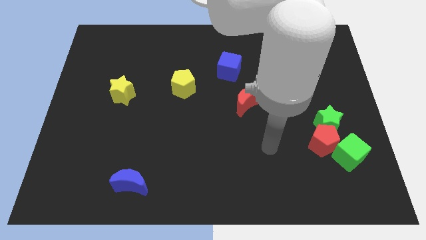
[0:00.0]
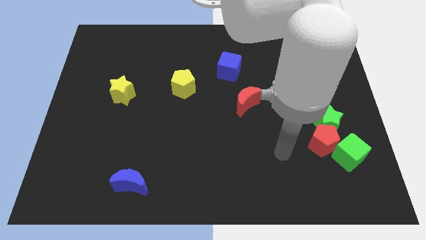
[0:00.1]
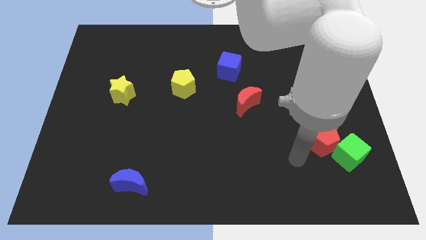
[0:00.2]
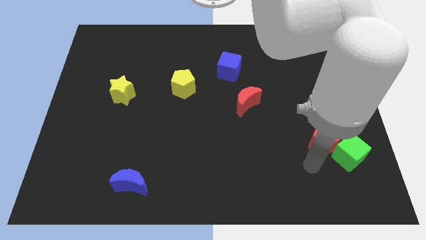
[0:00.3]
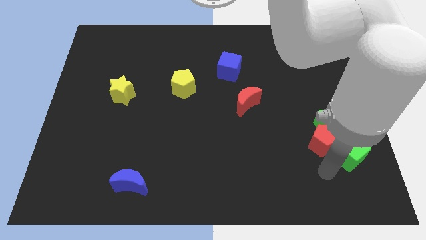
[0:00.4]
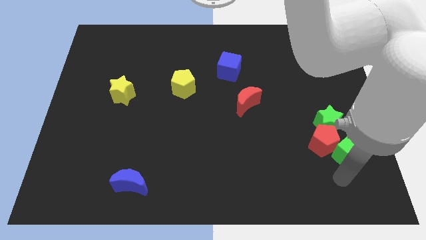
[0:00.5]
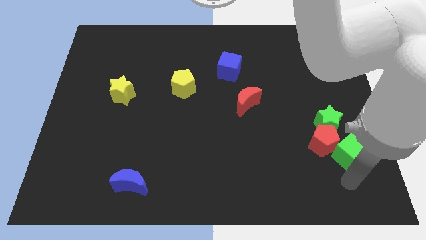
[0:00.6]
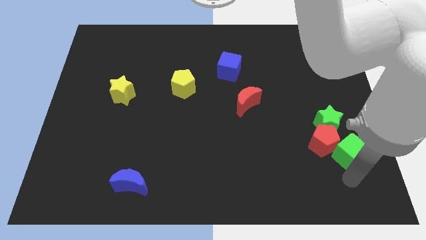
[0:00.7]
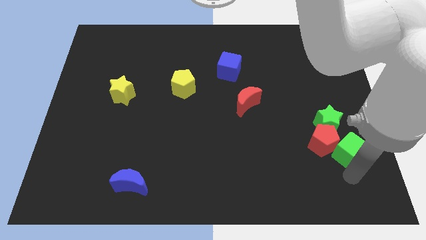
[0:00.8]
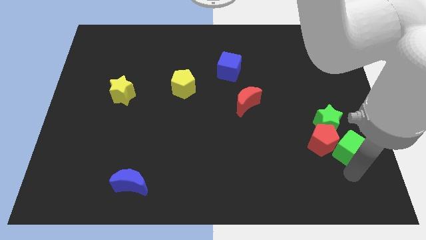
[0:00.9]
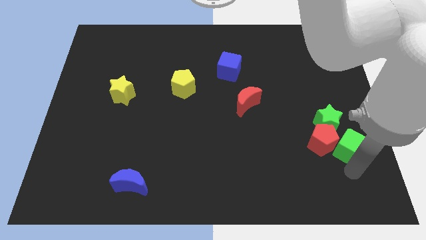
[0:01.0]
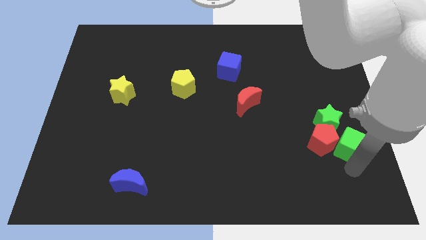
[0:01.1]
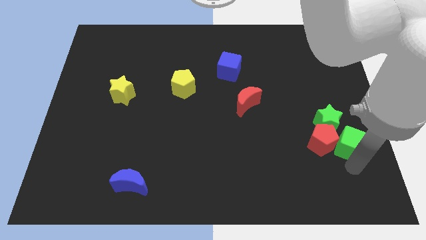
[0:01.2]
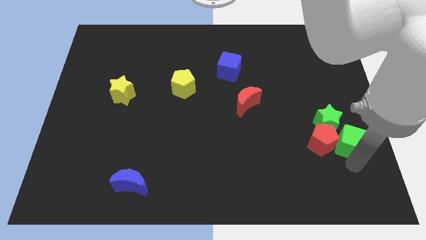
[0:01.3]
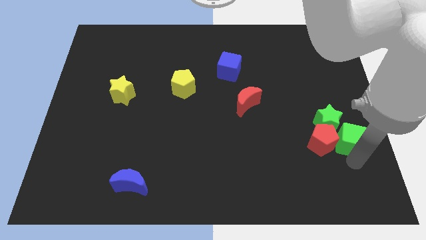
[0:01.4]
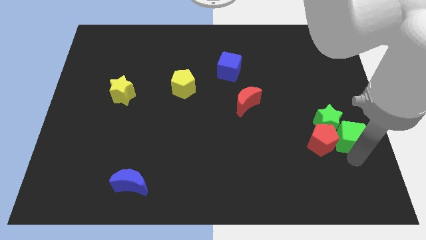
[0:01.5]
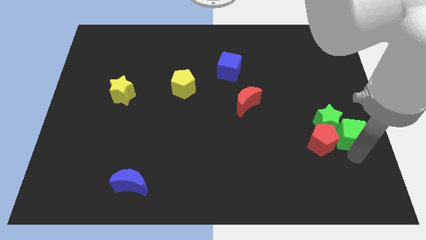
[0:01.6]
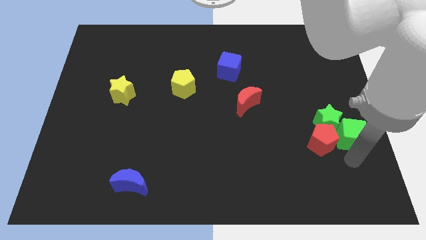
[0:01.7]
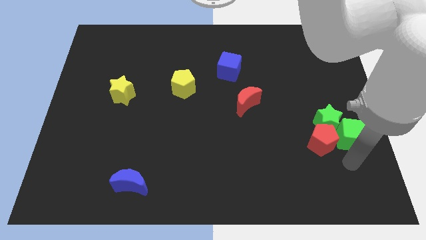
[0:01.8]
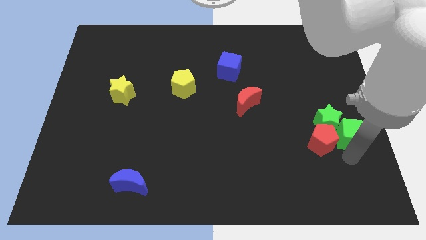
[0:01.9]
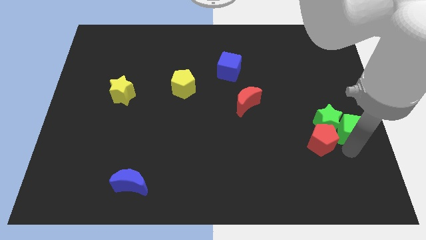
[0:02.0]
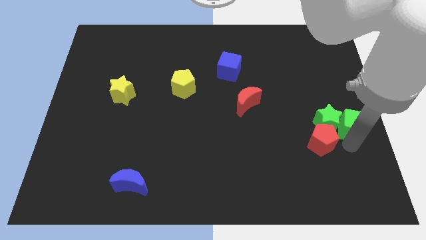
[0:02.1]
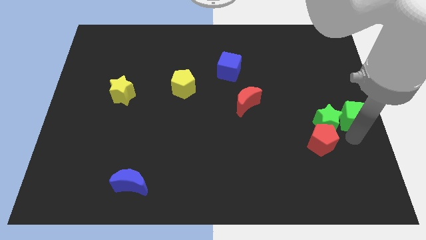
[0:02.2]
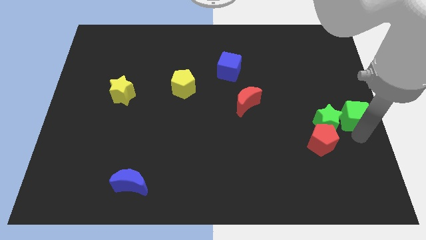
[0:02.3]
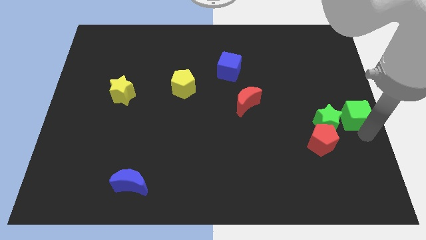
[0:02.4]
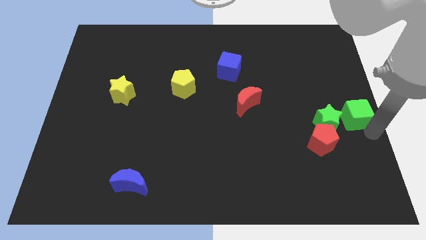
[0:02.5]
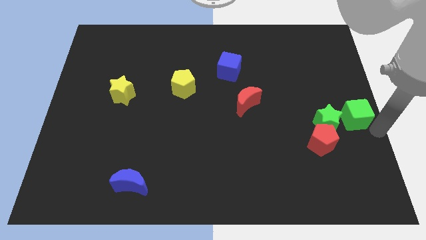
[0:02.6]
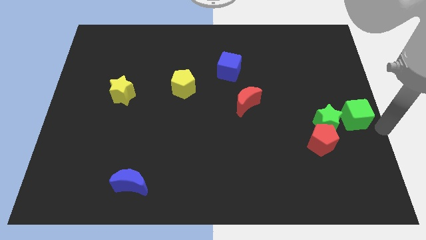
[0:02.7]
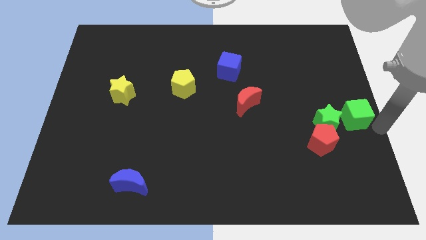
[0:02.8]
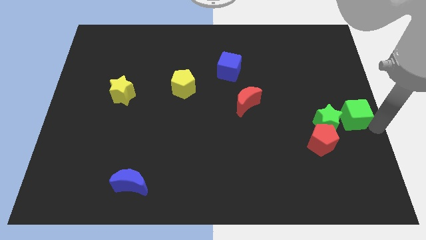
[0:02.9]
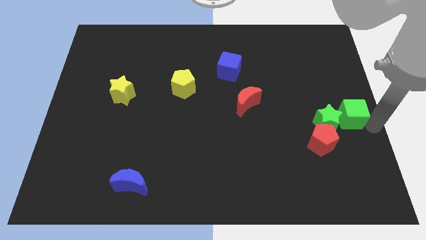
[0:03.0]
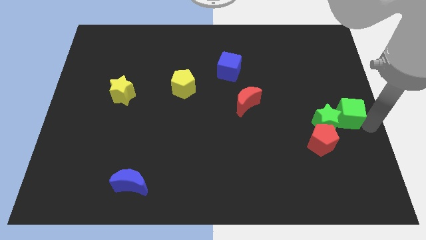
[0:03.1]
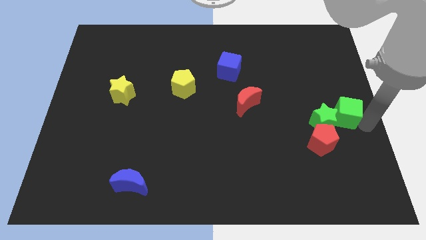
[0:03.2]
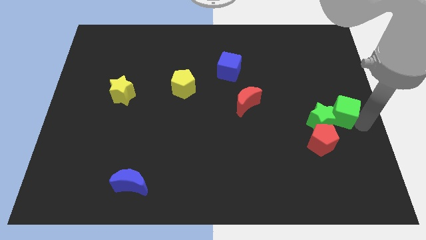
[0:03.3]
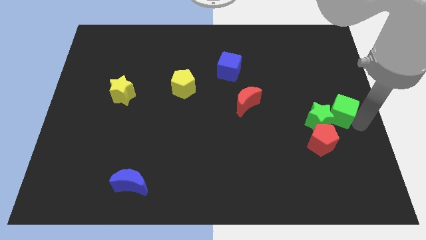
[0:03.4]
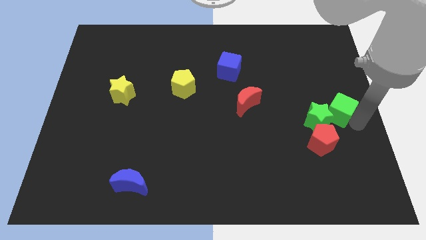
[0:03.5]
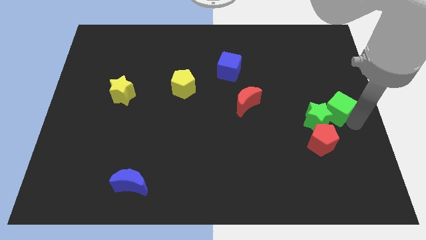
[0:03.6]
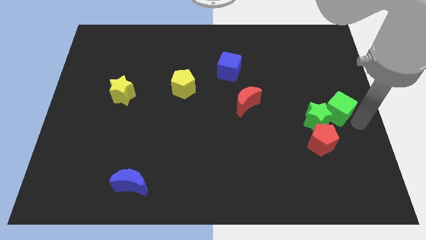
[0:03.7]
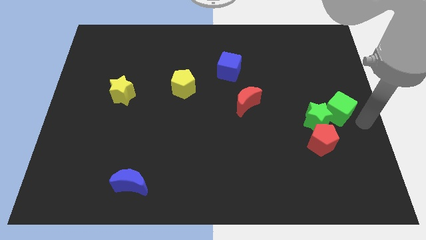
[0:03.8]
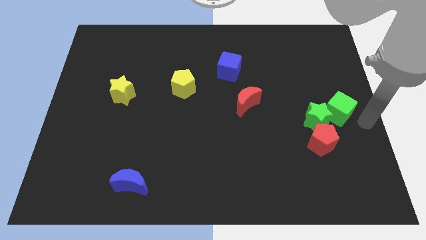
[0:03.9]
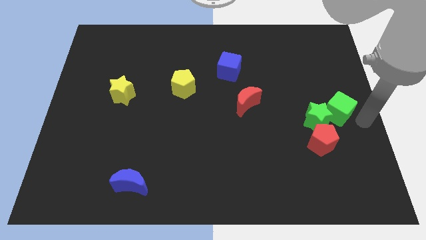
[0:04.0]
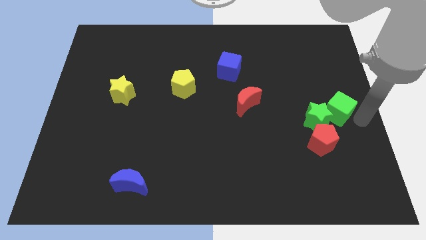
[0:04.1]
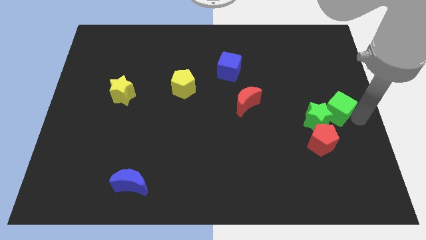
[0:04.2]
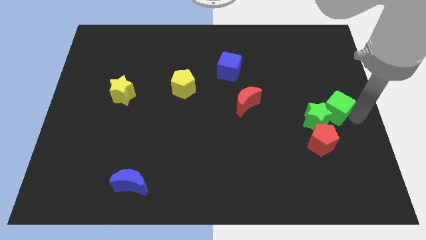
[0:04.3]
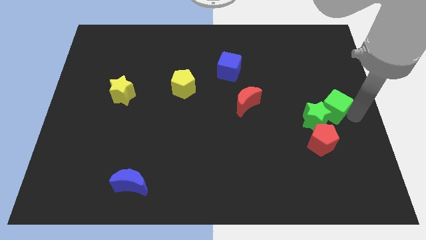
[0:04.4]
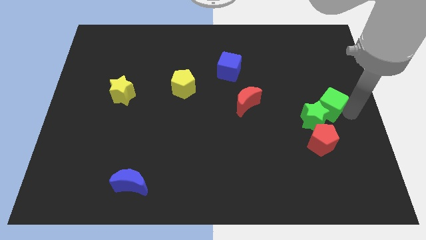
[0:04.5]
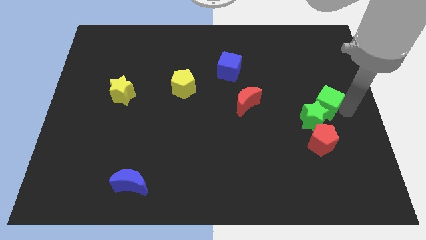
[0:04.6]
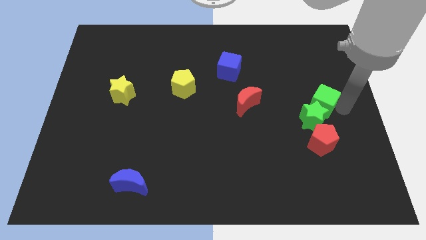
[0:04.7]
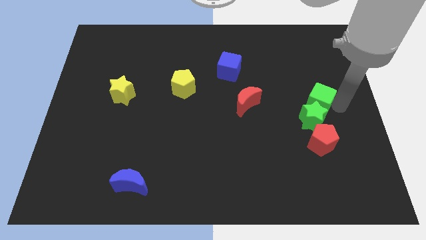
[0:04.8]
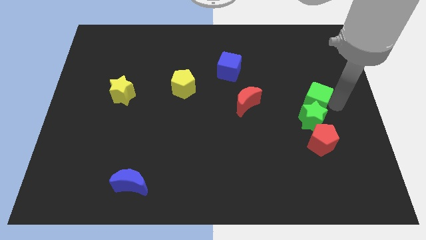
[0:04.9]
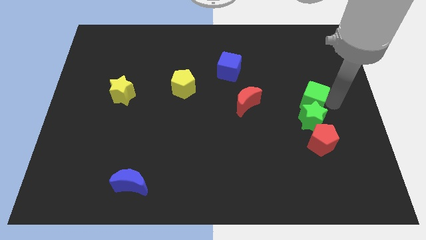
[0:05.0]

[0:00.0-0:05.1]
put the green cube to the right of the red moon

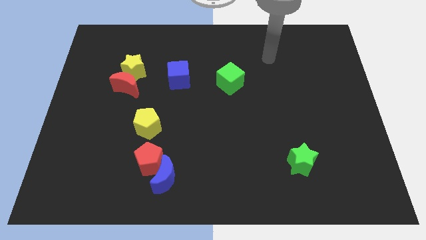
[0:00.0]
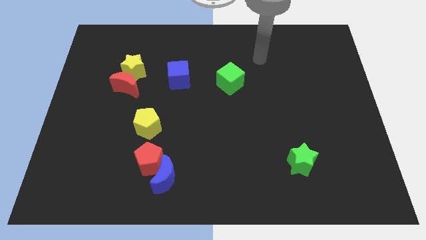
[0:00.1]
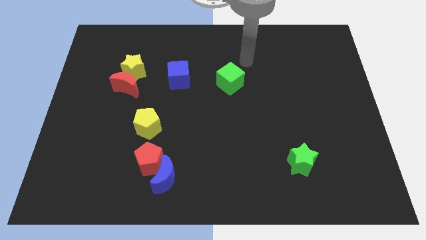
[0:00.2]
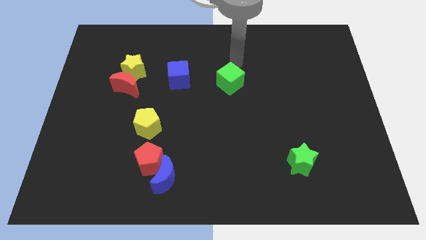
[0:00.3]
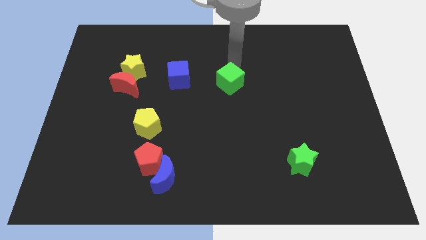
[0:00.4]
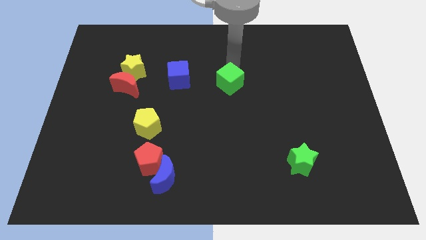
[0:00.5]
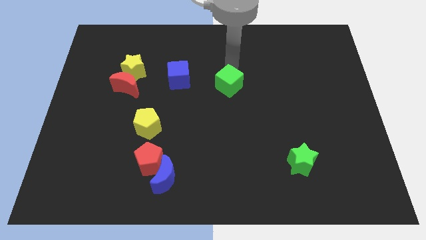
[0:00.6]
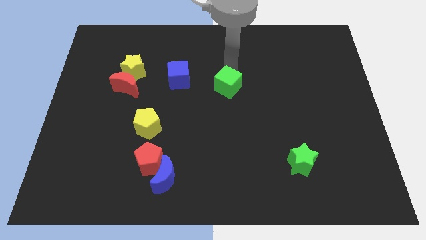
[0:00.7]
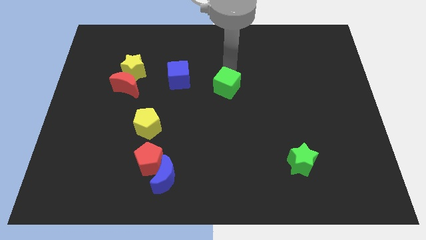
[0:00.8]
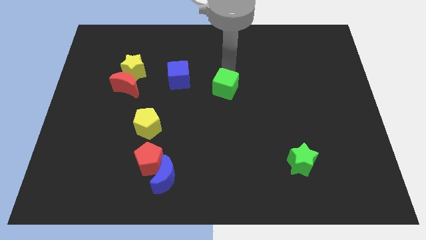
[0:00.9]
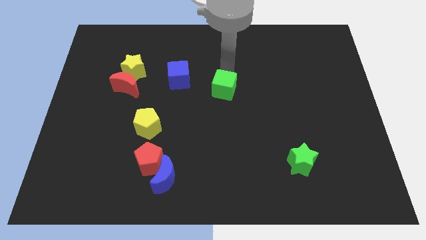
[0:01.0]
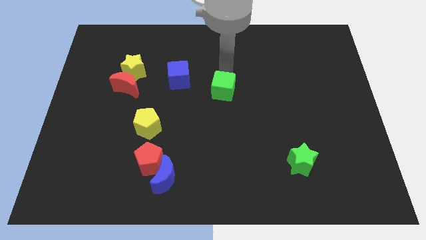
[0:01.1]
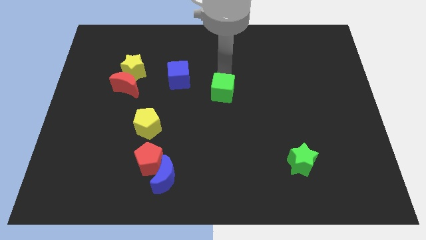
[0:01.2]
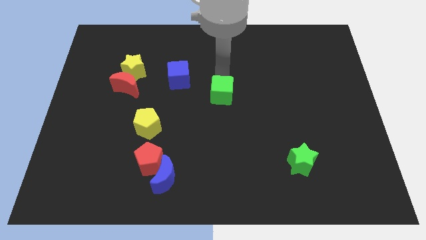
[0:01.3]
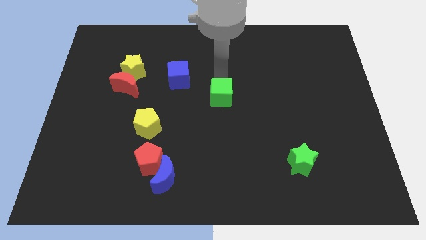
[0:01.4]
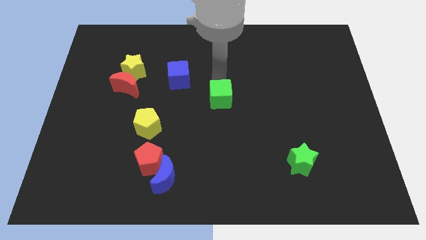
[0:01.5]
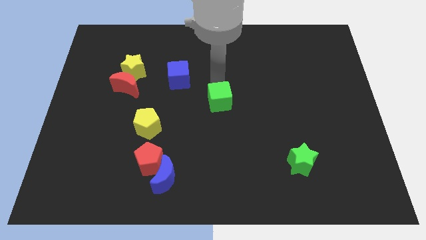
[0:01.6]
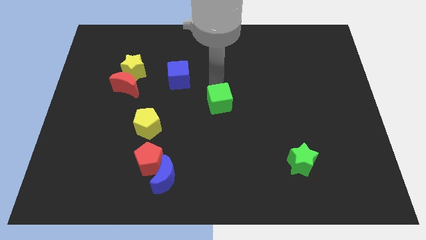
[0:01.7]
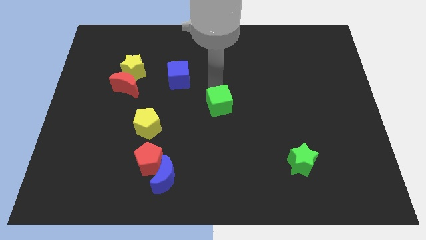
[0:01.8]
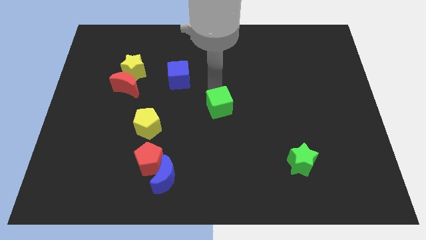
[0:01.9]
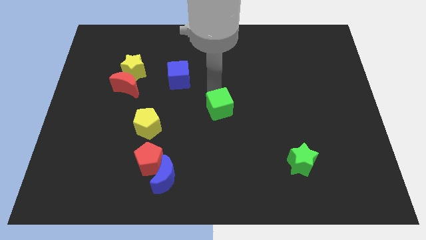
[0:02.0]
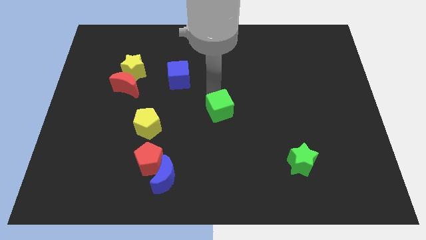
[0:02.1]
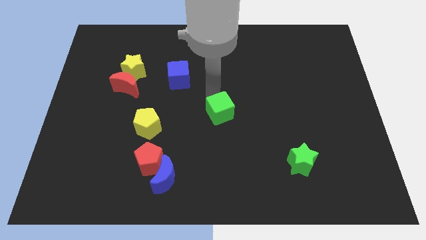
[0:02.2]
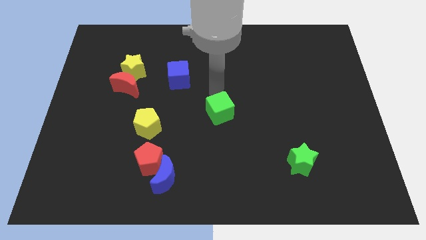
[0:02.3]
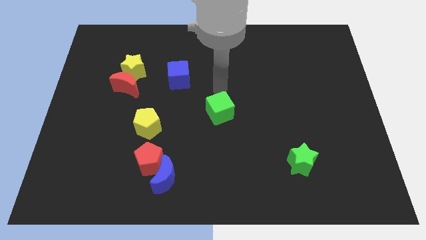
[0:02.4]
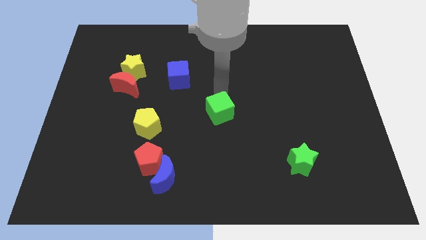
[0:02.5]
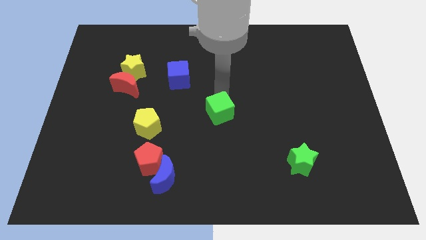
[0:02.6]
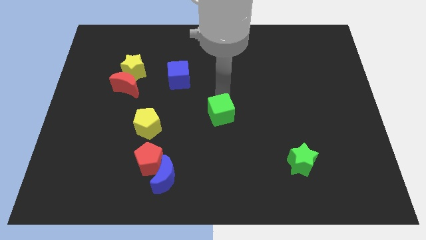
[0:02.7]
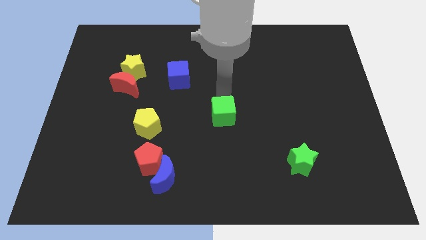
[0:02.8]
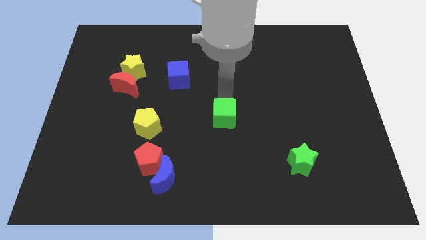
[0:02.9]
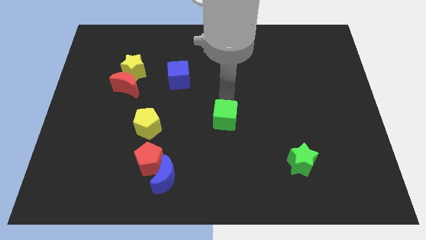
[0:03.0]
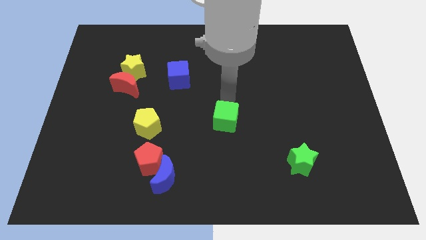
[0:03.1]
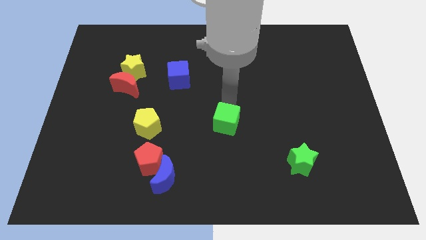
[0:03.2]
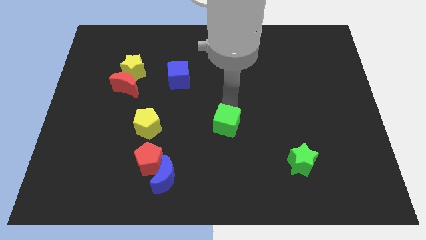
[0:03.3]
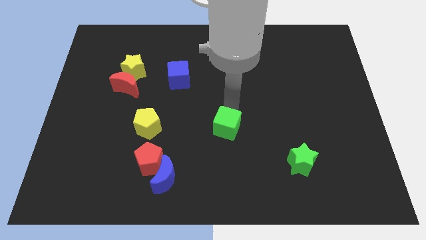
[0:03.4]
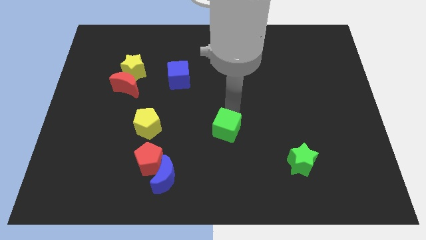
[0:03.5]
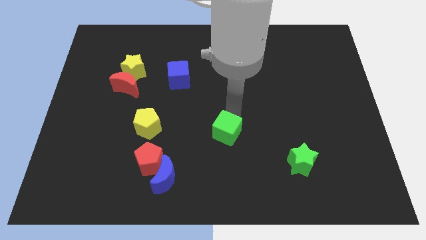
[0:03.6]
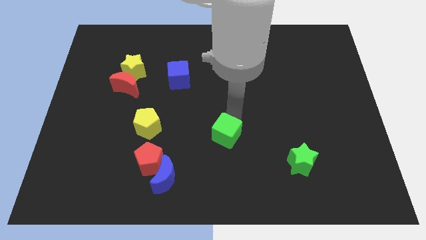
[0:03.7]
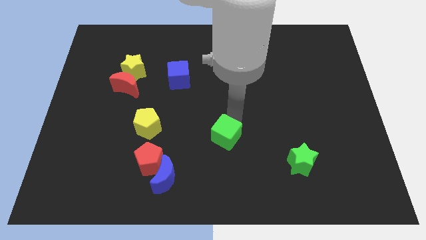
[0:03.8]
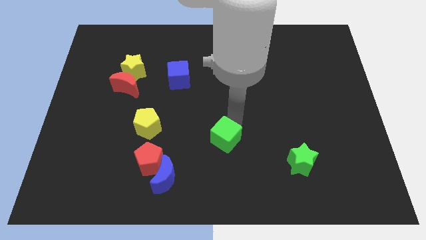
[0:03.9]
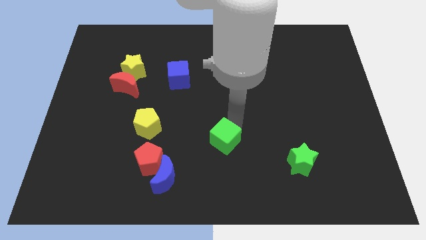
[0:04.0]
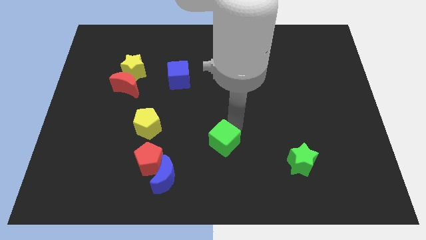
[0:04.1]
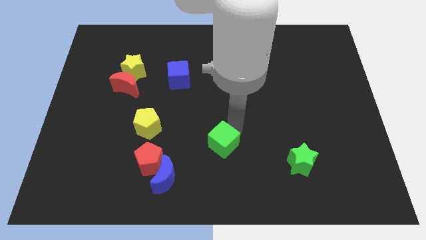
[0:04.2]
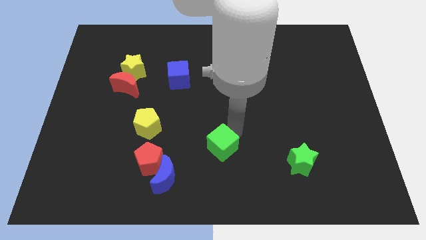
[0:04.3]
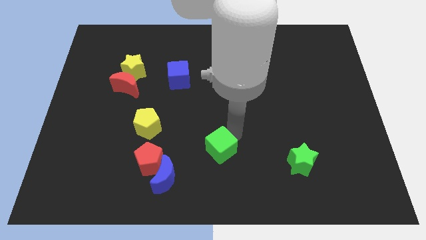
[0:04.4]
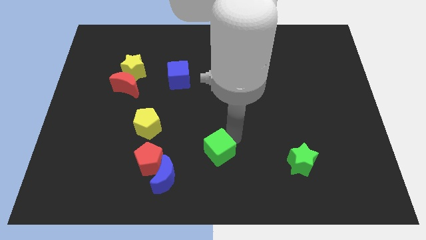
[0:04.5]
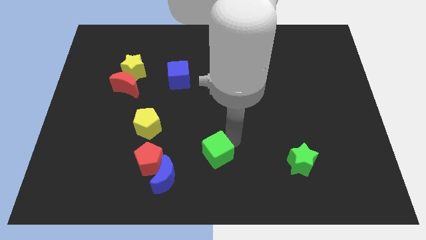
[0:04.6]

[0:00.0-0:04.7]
move the green cube to the top right side of the blue moon
